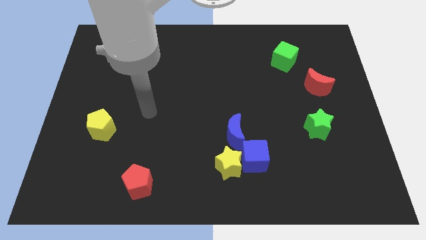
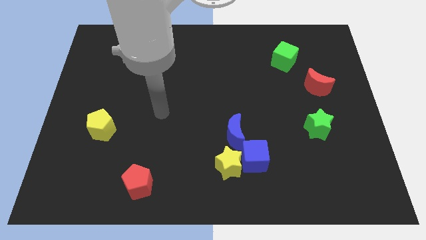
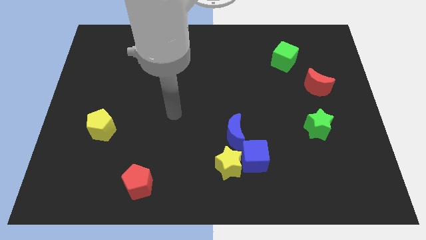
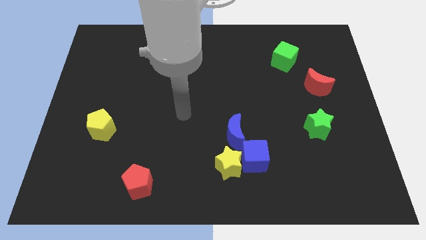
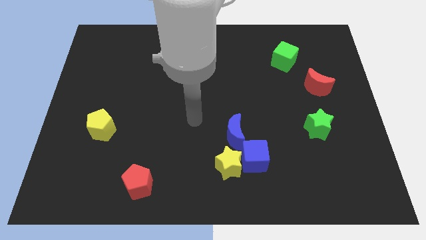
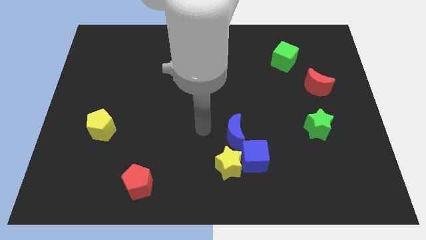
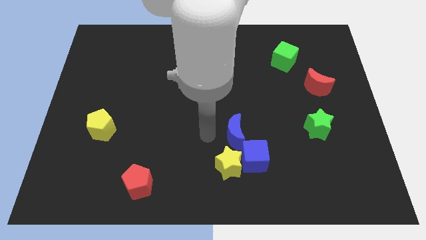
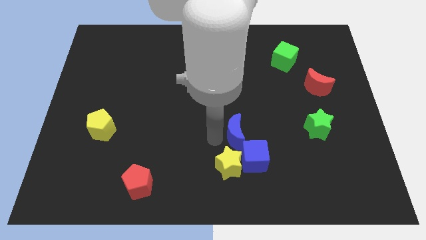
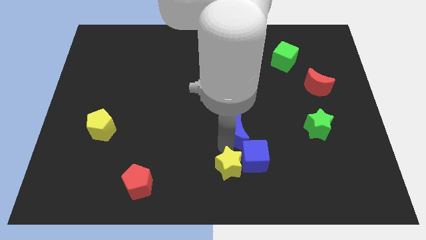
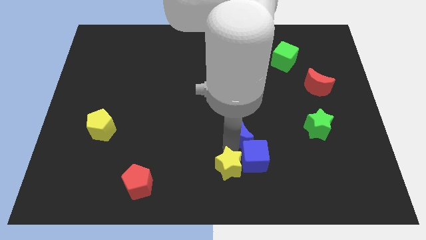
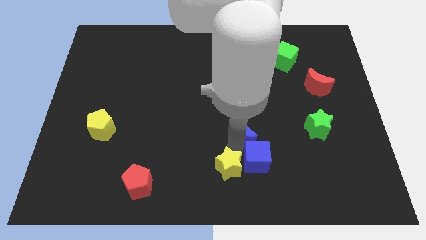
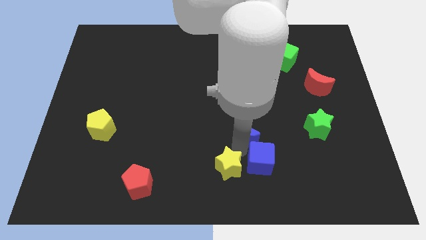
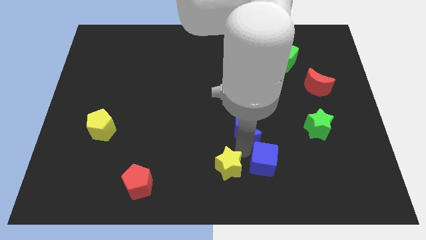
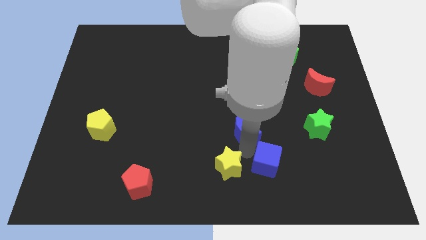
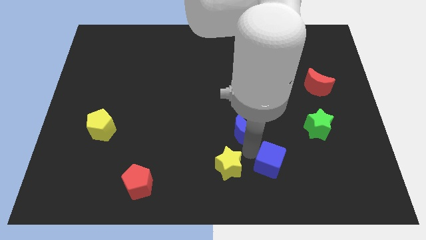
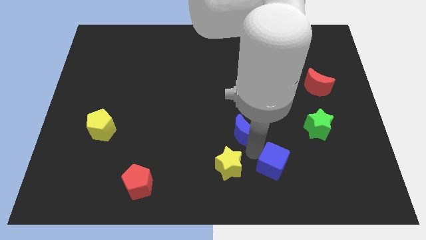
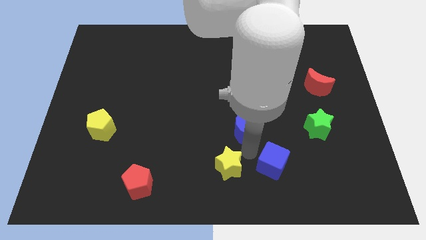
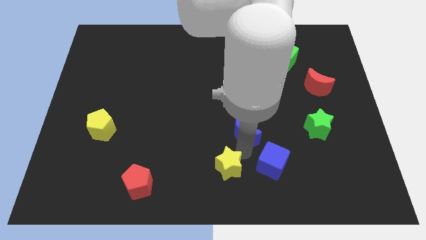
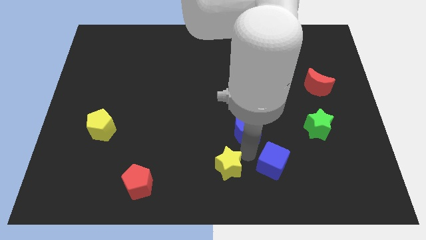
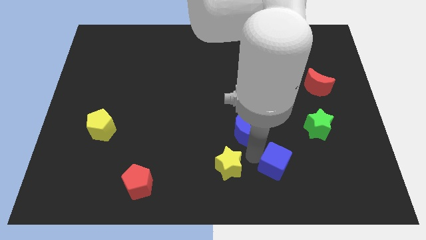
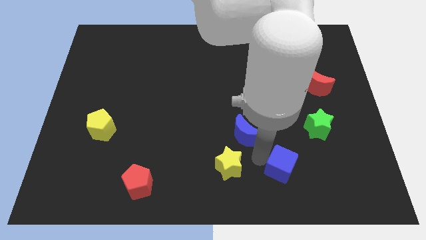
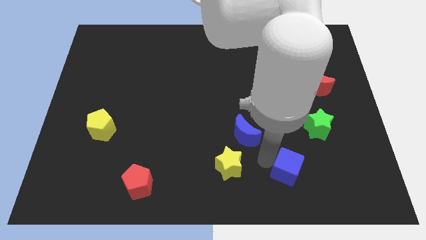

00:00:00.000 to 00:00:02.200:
pull the blue cube apart from the yellow star and blue moon

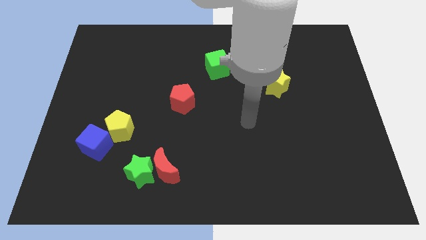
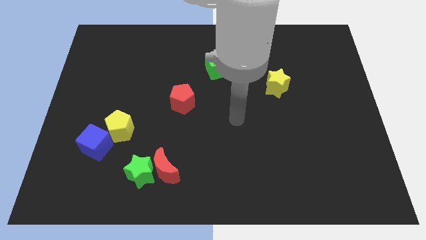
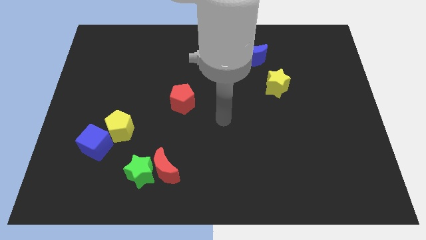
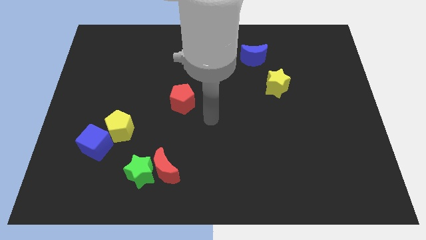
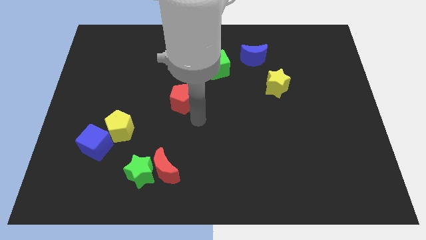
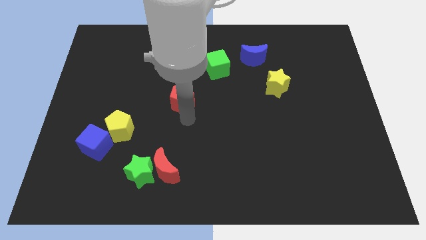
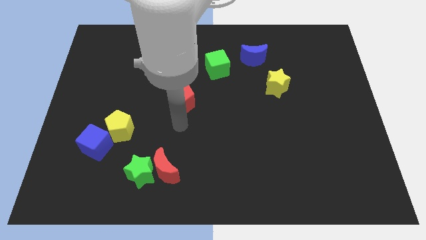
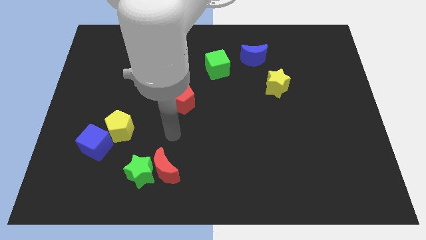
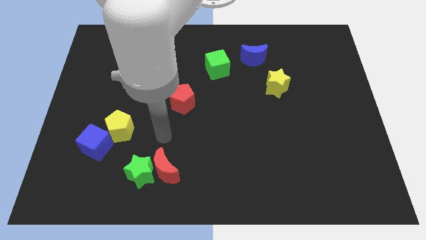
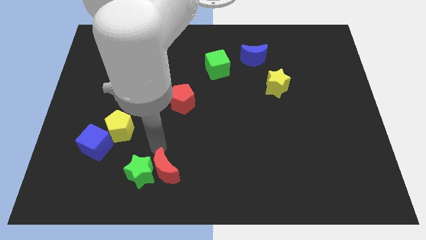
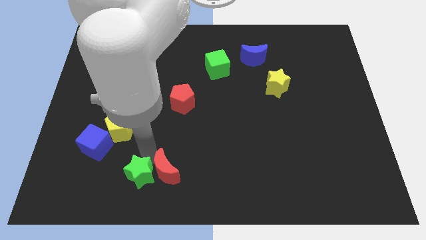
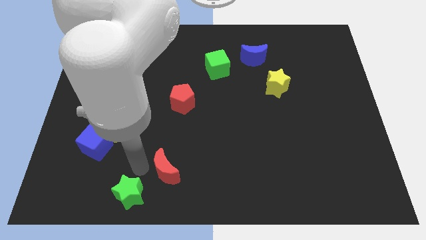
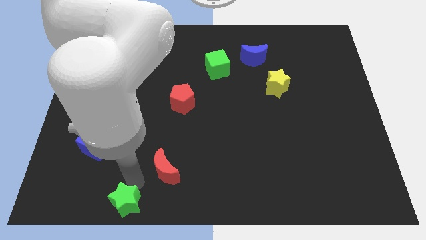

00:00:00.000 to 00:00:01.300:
move the red moon away from the green star

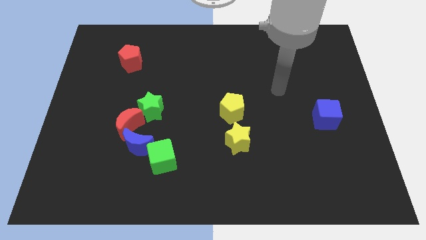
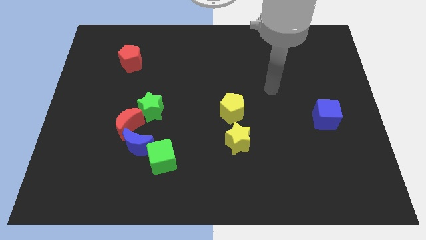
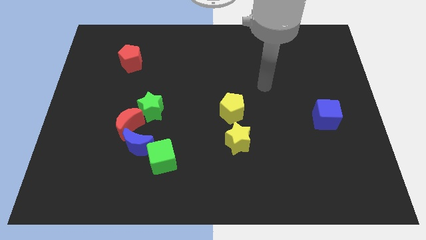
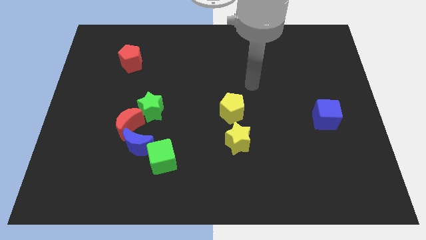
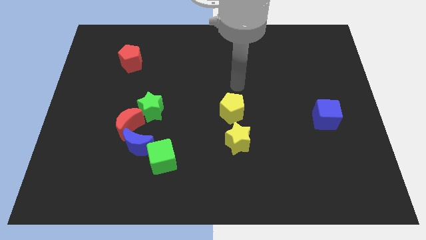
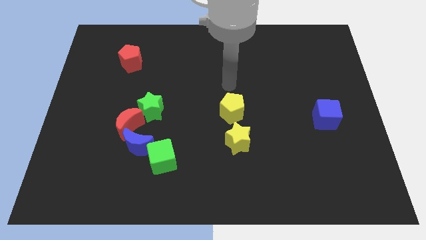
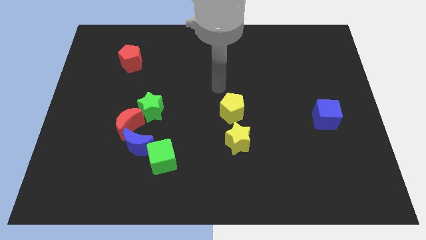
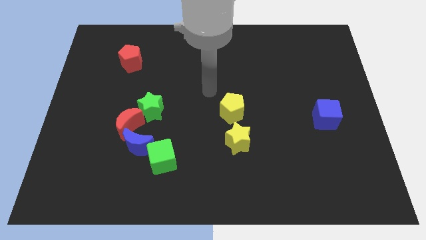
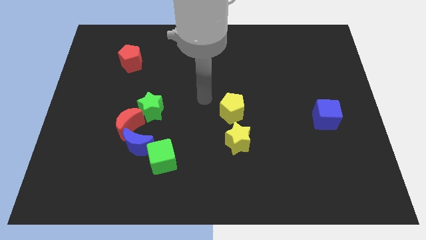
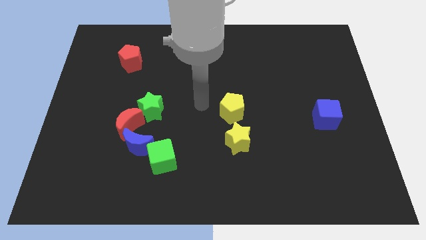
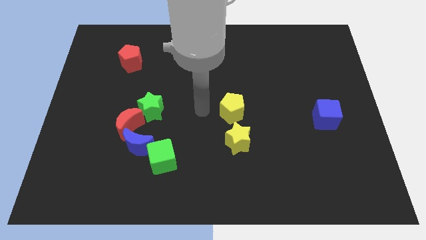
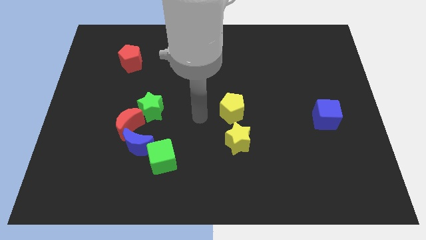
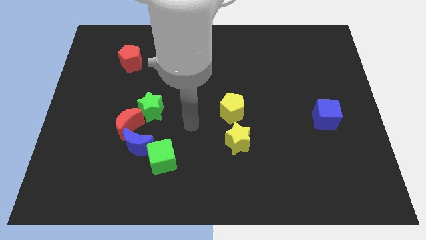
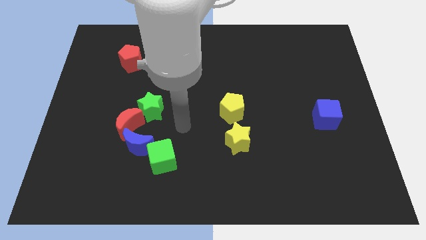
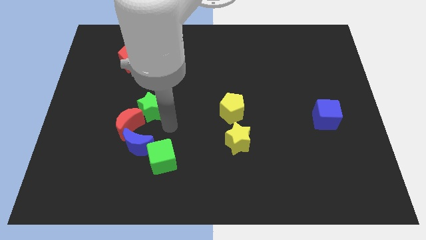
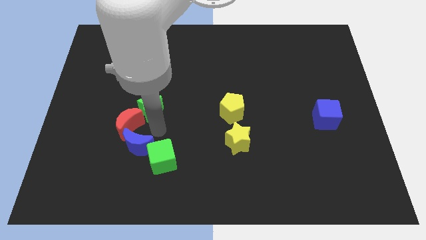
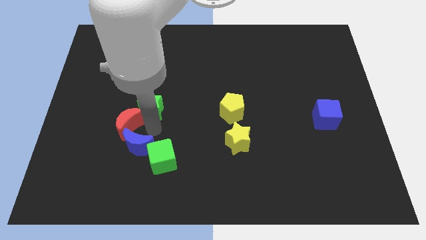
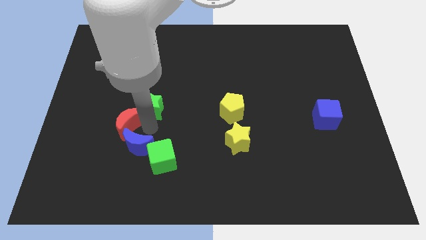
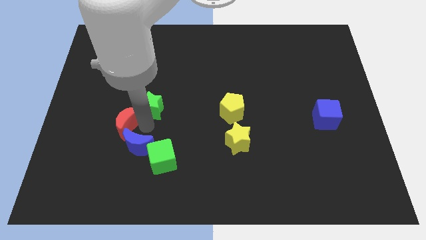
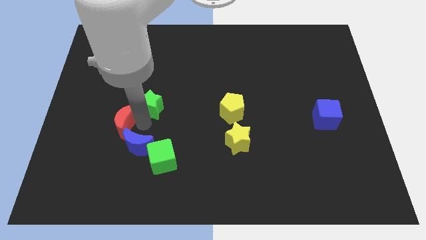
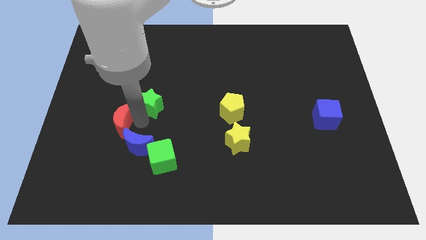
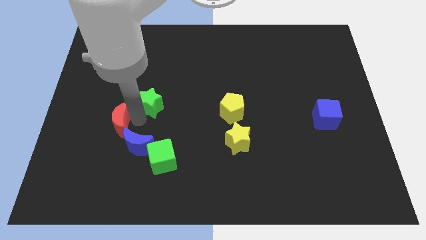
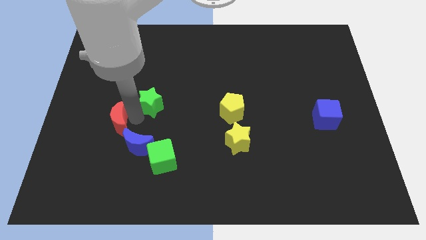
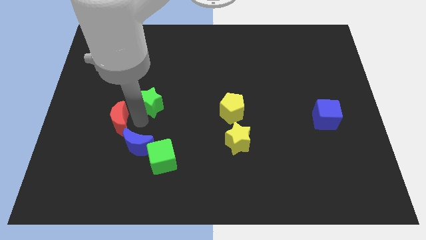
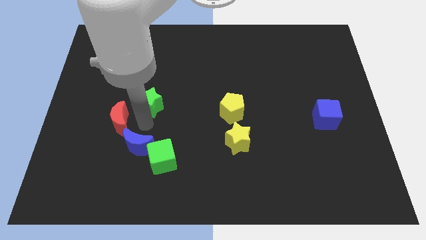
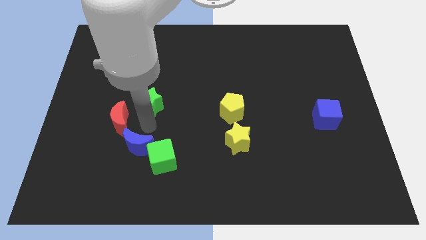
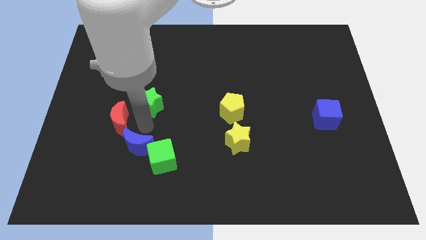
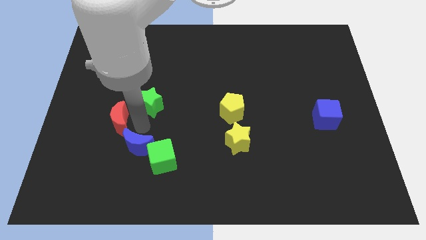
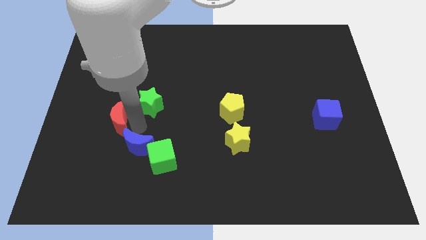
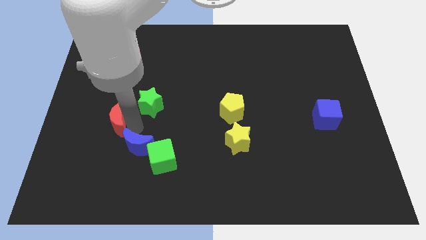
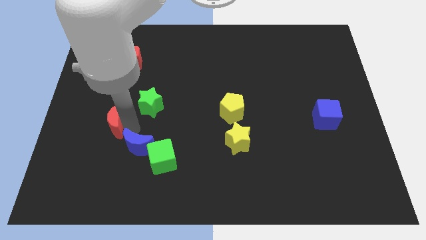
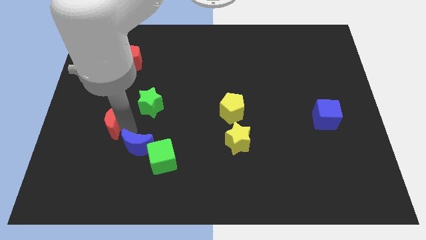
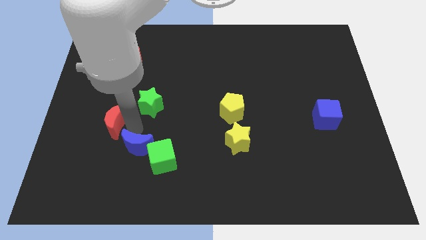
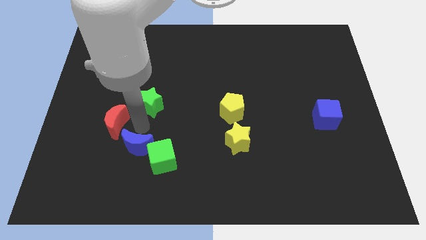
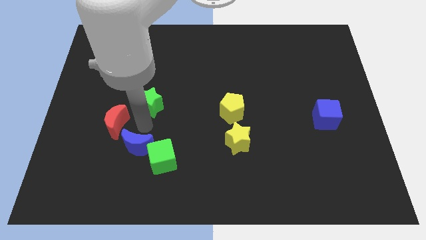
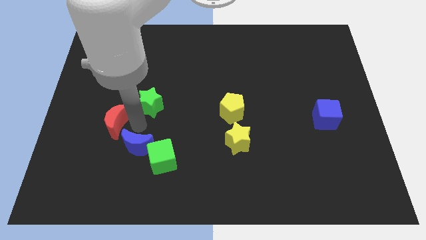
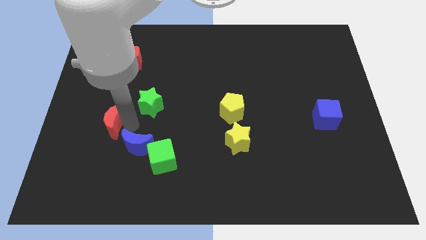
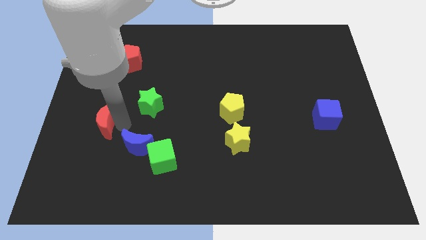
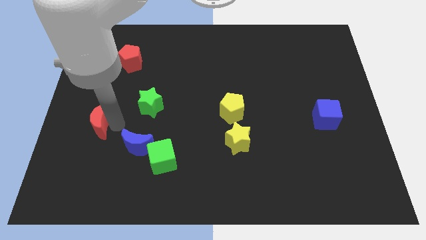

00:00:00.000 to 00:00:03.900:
pull the red moon apart from the green star and blue moon

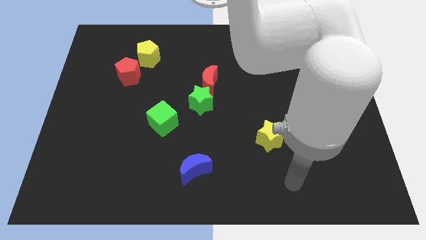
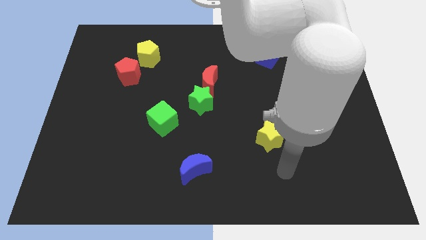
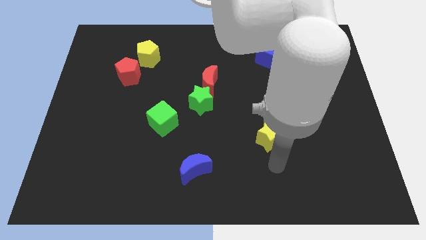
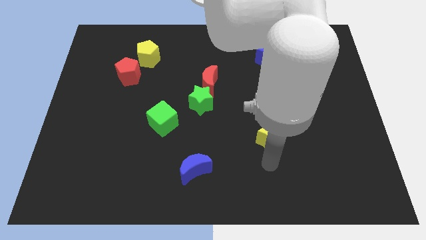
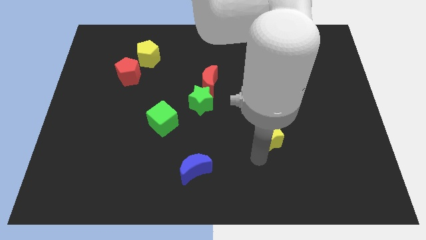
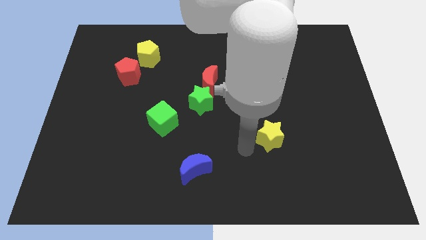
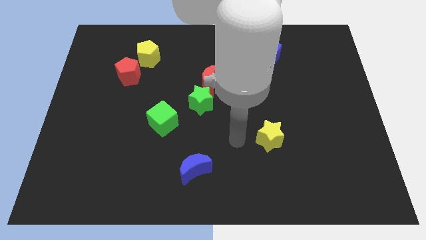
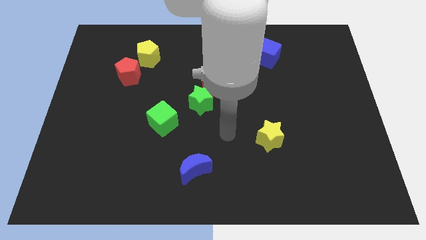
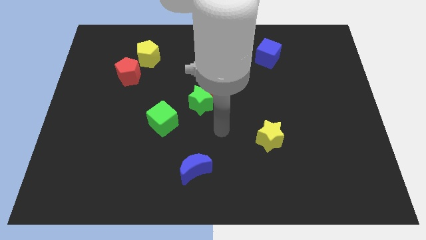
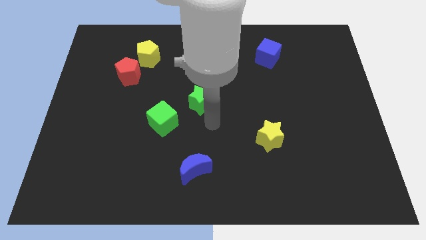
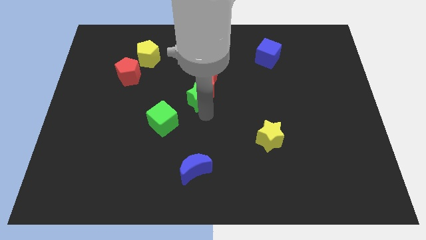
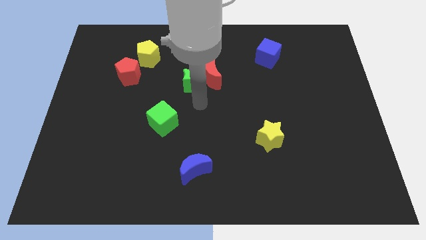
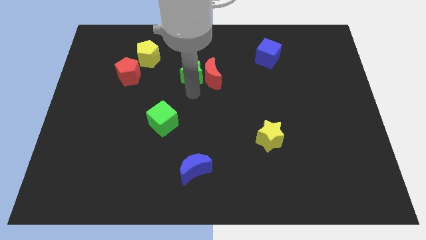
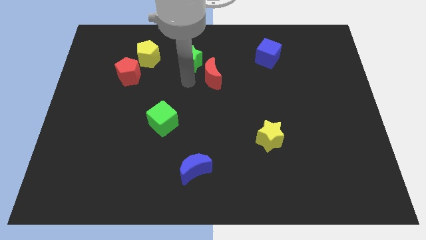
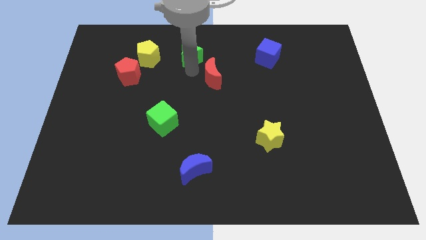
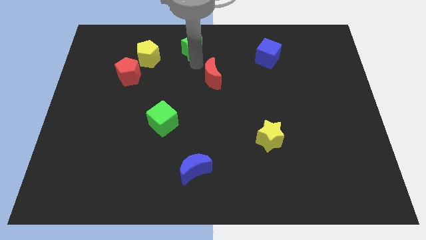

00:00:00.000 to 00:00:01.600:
pull the red moon apart from the green star

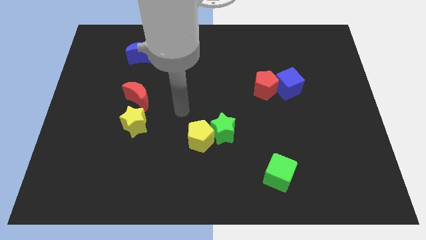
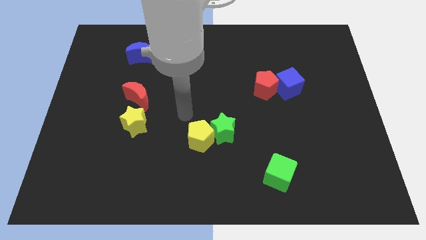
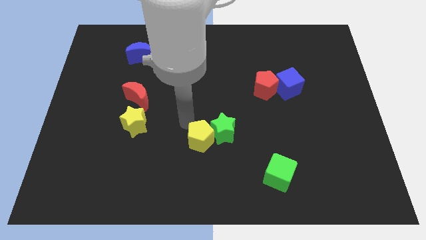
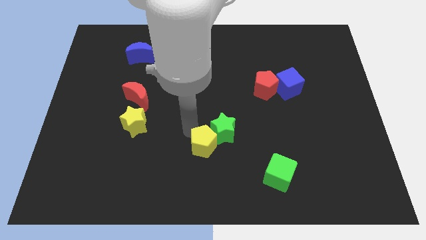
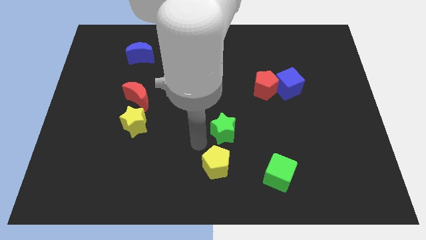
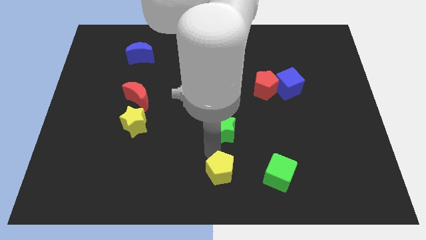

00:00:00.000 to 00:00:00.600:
move the green star away from the yellow pentagon
